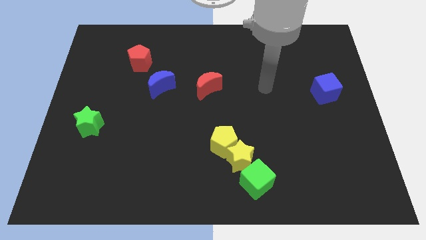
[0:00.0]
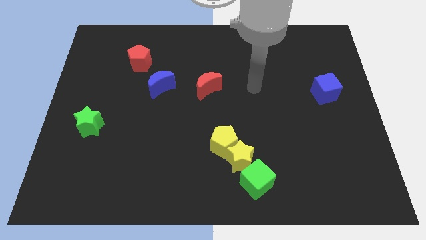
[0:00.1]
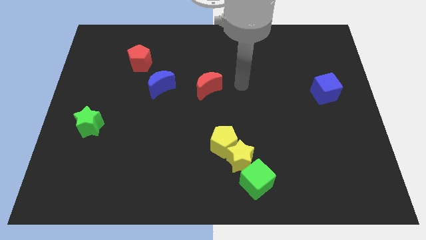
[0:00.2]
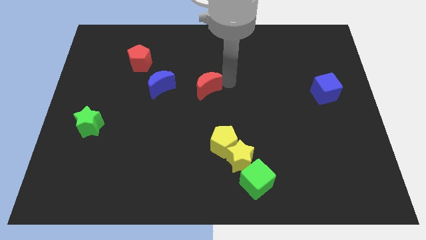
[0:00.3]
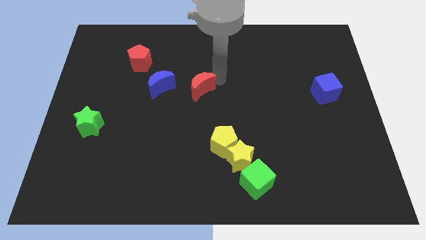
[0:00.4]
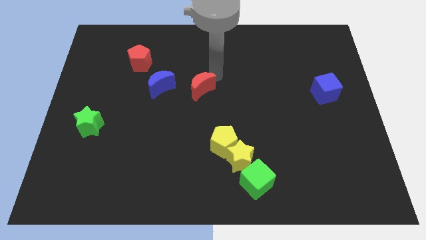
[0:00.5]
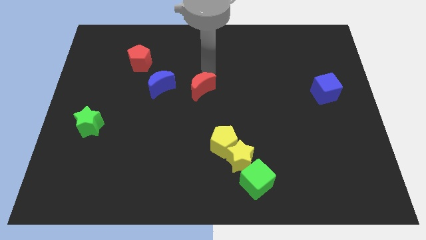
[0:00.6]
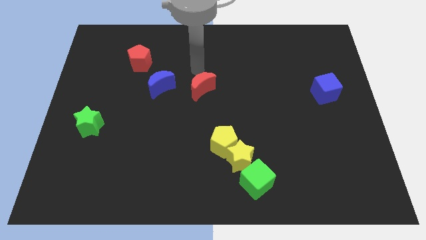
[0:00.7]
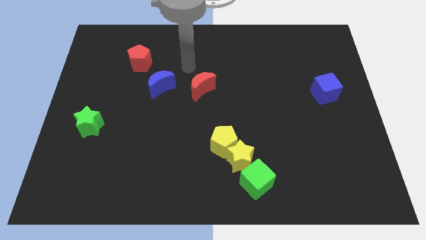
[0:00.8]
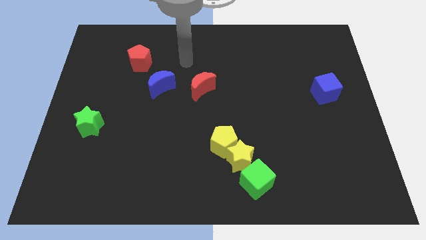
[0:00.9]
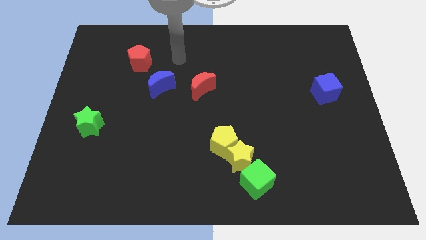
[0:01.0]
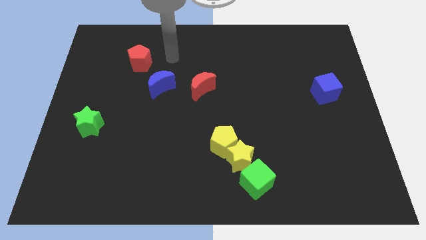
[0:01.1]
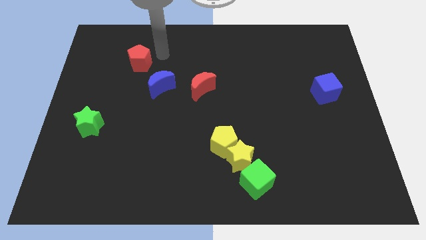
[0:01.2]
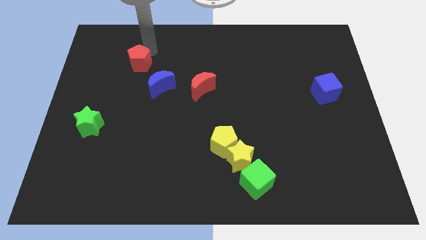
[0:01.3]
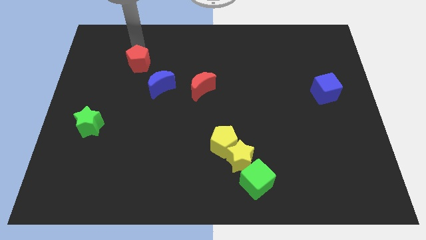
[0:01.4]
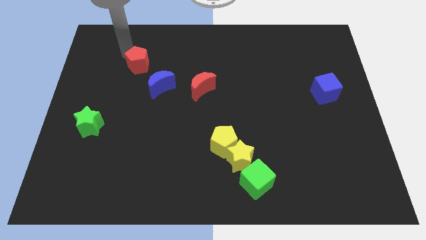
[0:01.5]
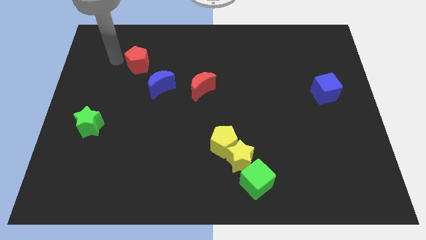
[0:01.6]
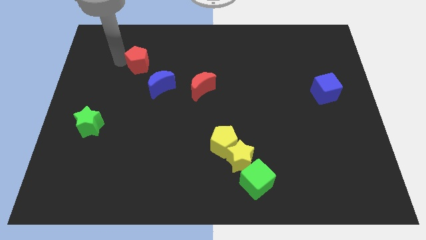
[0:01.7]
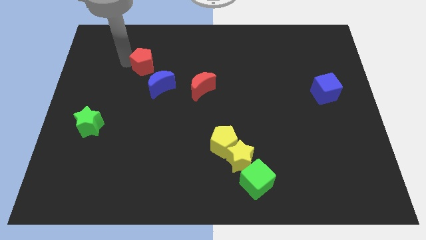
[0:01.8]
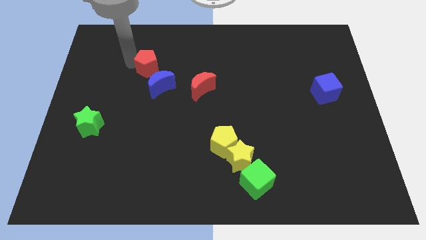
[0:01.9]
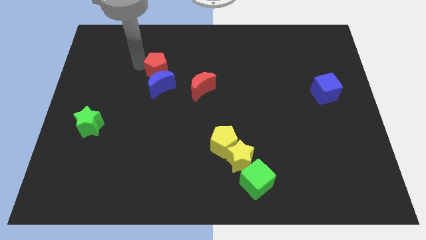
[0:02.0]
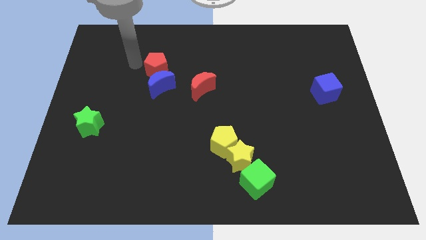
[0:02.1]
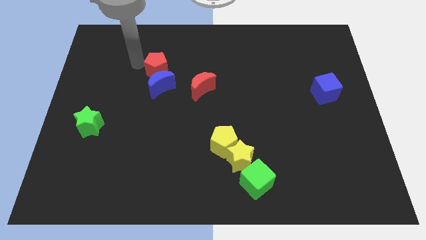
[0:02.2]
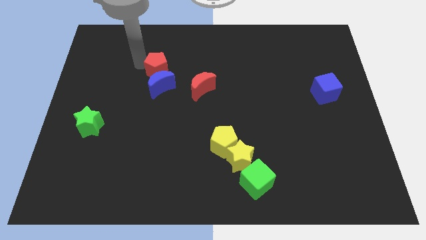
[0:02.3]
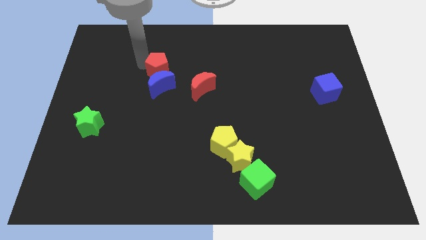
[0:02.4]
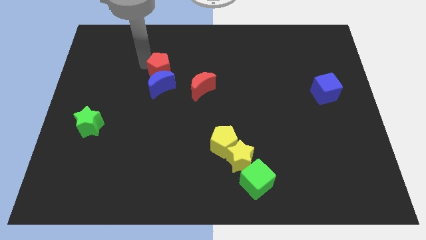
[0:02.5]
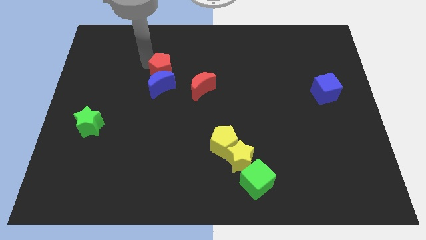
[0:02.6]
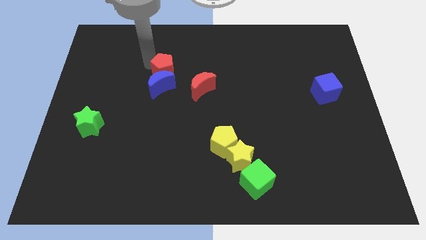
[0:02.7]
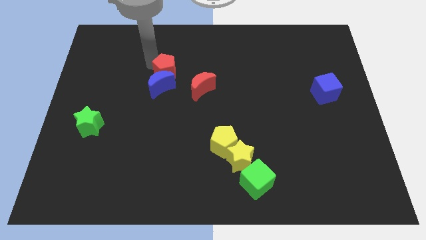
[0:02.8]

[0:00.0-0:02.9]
slightly slide the red pentagon down and to the right diagonally

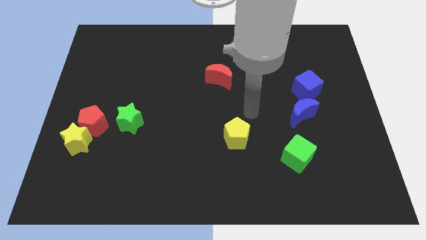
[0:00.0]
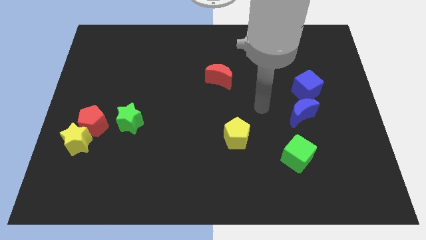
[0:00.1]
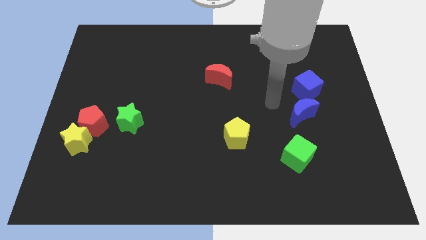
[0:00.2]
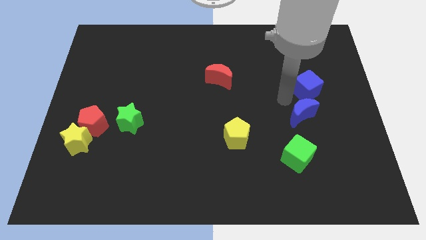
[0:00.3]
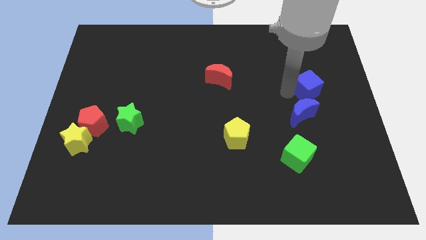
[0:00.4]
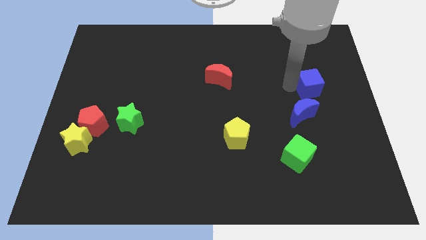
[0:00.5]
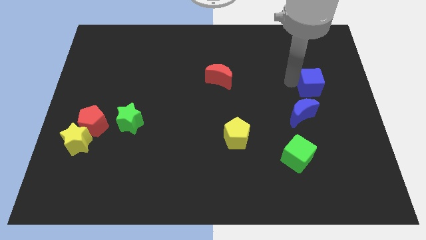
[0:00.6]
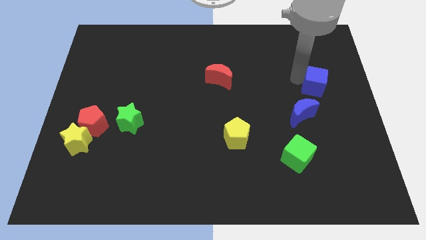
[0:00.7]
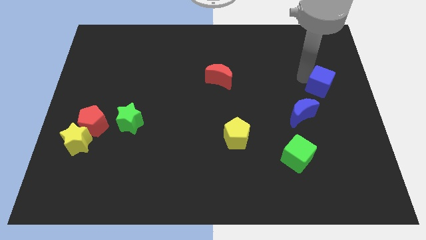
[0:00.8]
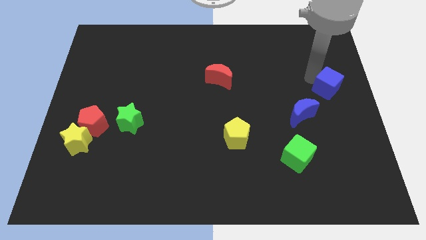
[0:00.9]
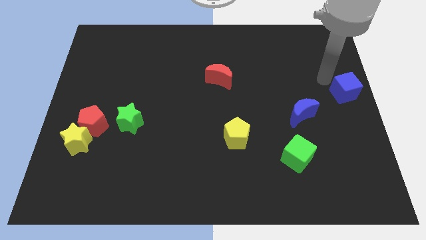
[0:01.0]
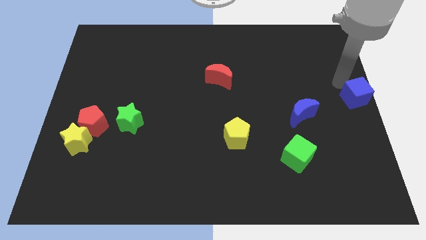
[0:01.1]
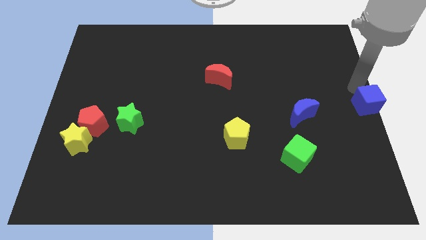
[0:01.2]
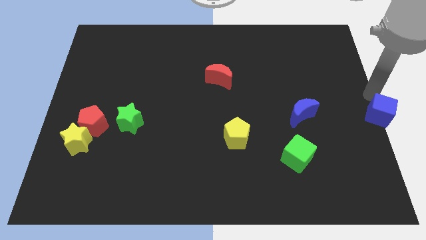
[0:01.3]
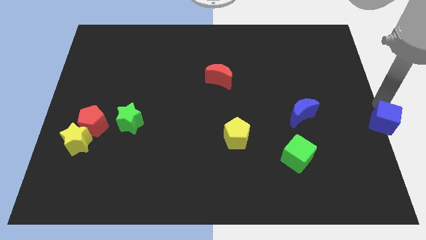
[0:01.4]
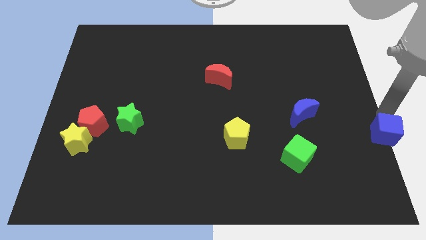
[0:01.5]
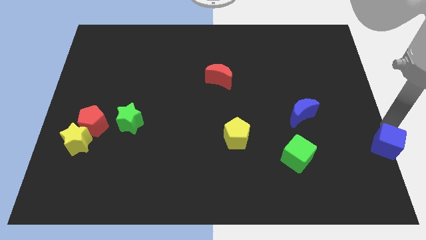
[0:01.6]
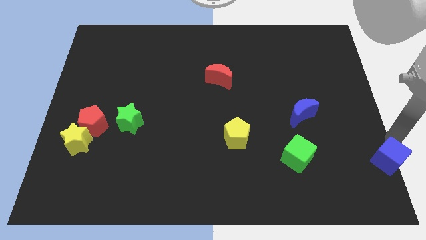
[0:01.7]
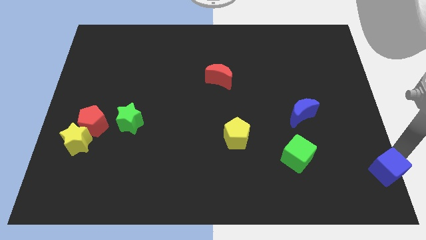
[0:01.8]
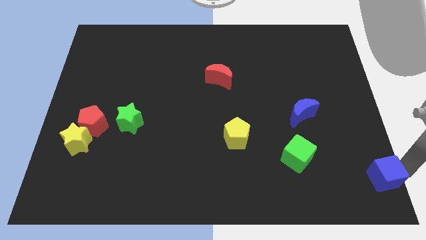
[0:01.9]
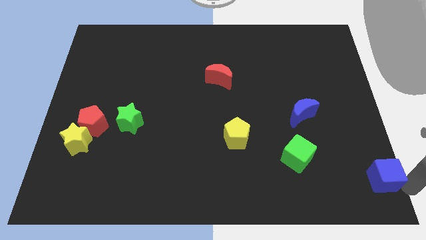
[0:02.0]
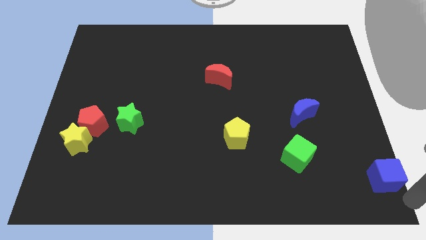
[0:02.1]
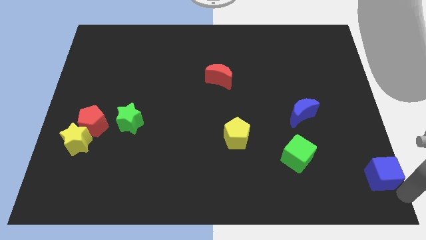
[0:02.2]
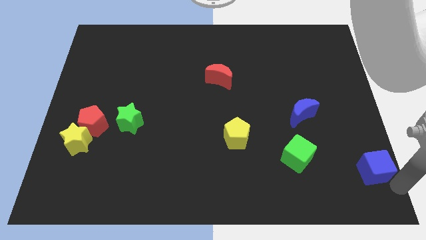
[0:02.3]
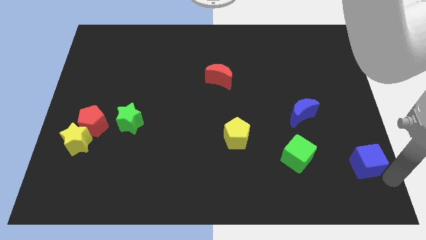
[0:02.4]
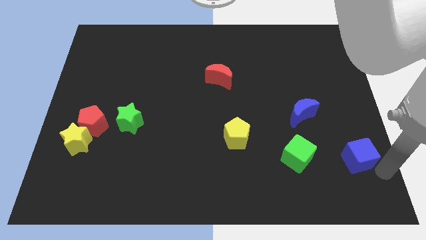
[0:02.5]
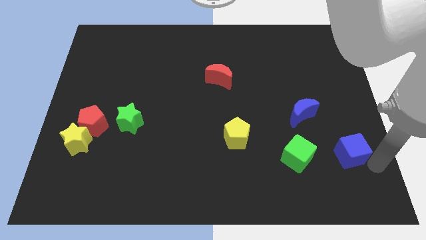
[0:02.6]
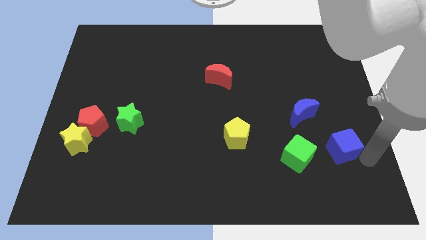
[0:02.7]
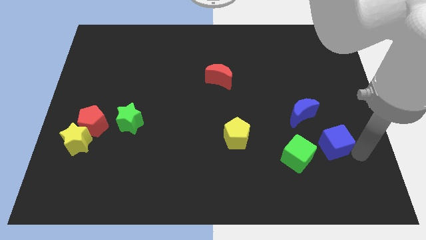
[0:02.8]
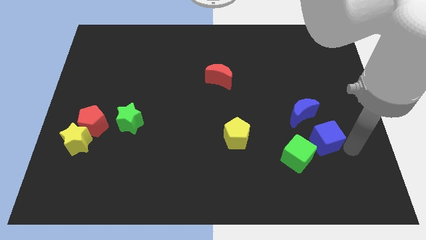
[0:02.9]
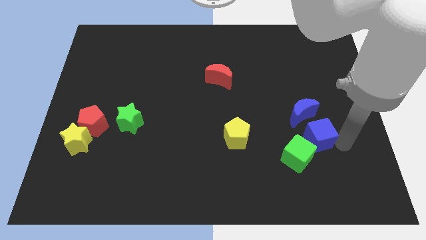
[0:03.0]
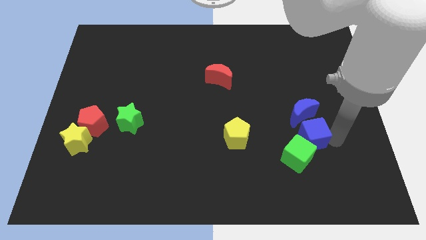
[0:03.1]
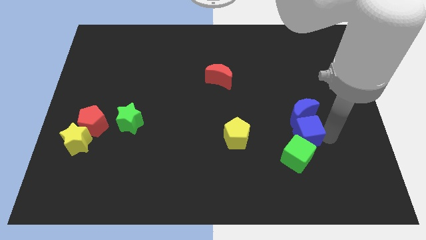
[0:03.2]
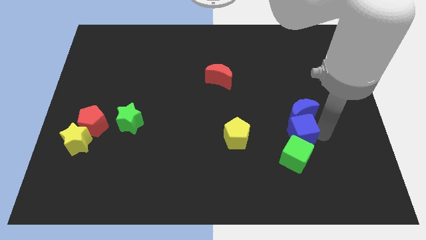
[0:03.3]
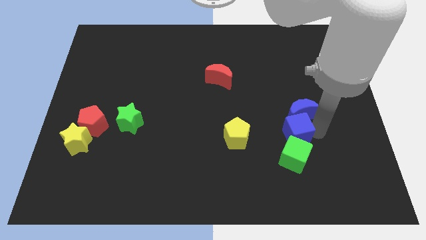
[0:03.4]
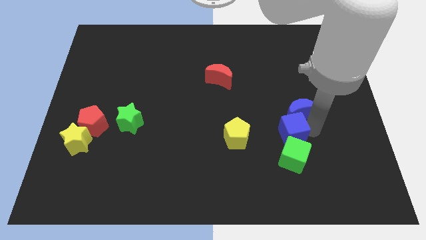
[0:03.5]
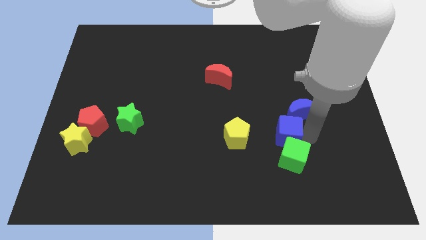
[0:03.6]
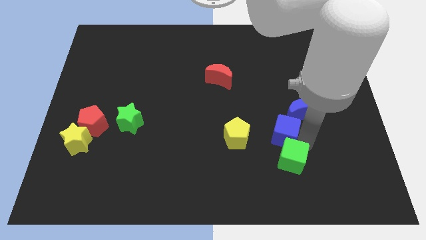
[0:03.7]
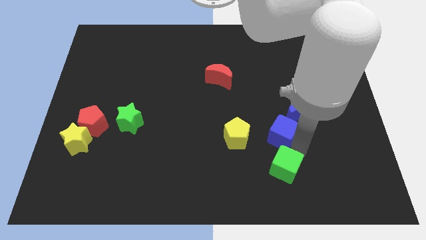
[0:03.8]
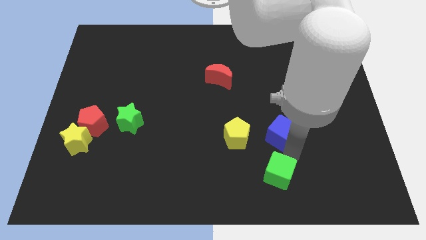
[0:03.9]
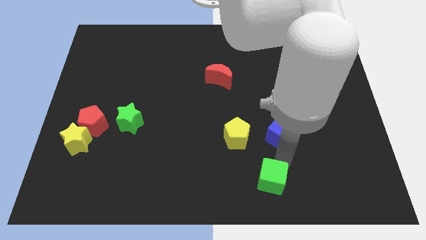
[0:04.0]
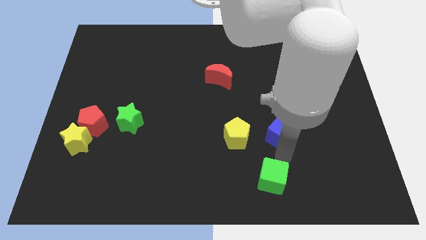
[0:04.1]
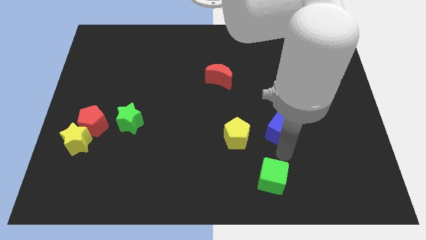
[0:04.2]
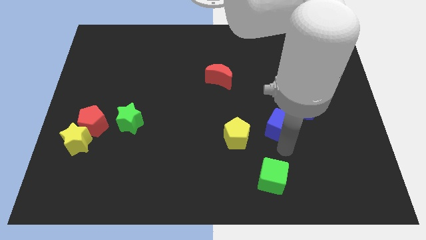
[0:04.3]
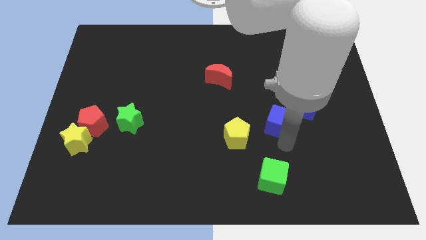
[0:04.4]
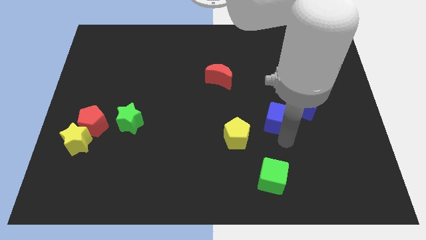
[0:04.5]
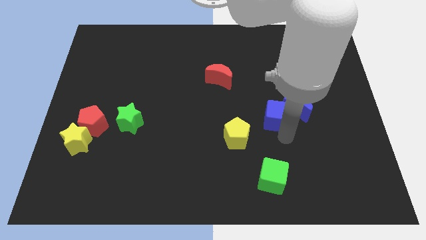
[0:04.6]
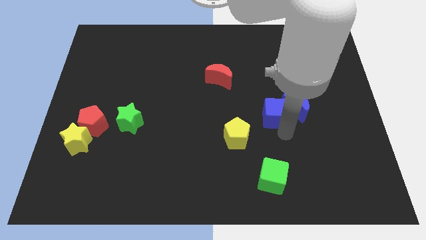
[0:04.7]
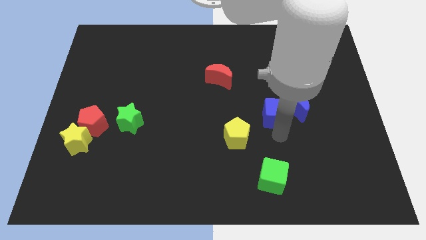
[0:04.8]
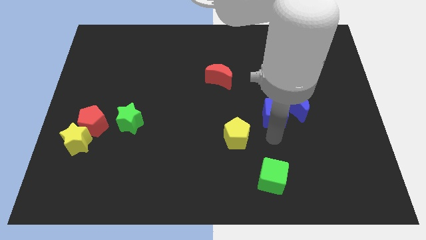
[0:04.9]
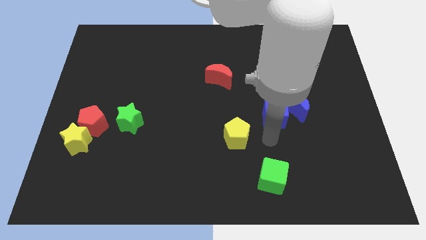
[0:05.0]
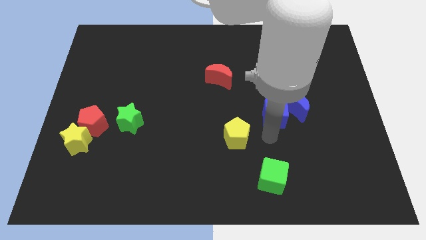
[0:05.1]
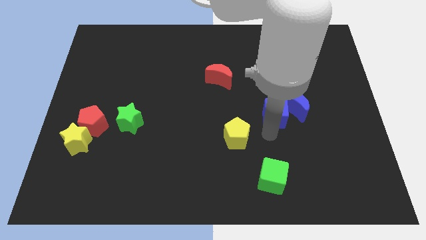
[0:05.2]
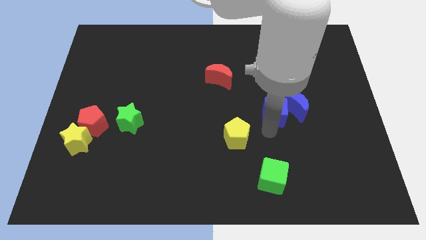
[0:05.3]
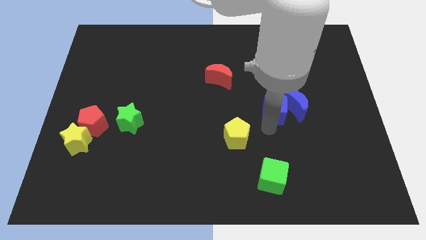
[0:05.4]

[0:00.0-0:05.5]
move the blue cube to the left slightly
